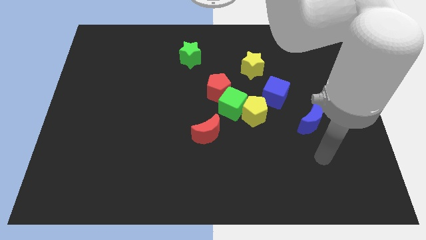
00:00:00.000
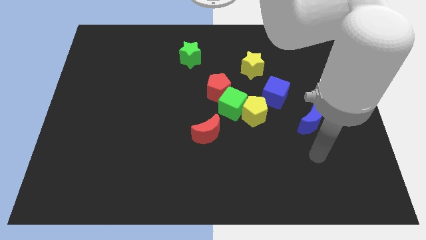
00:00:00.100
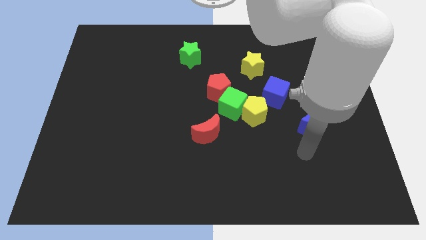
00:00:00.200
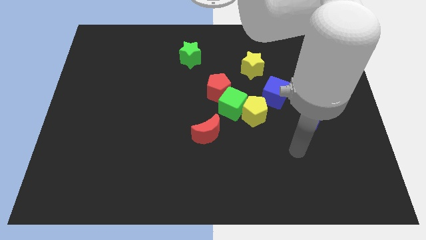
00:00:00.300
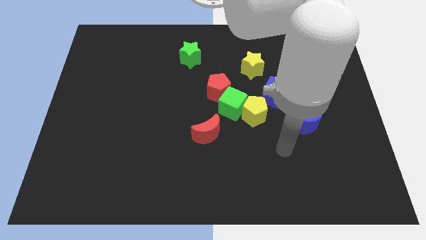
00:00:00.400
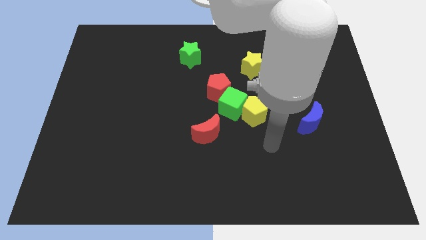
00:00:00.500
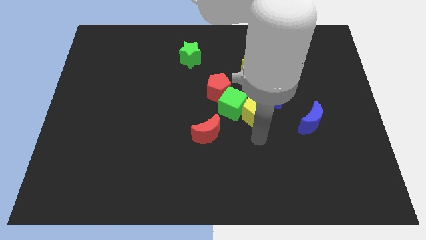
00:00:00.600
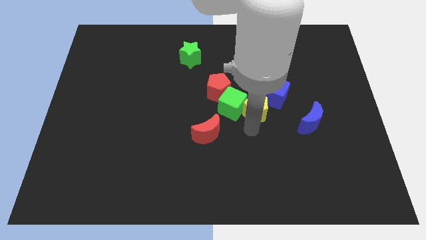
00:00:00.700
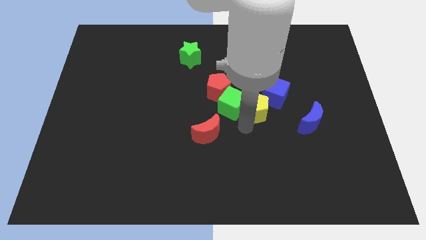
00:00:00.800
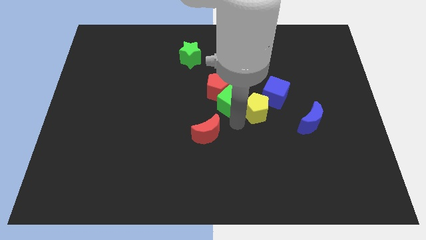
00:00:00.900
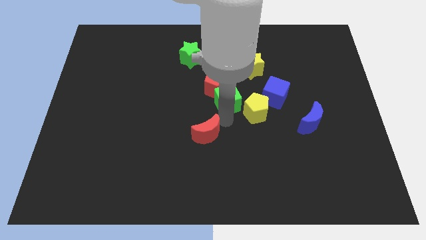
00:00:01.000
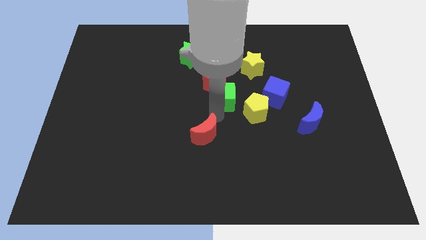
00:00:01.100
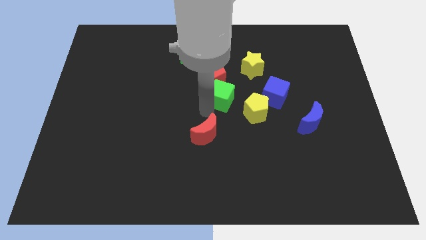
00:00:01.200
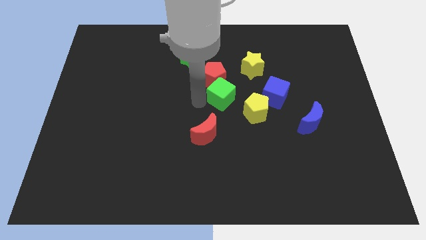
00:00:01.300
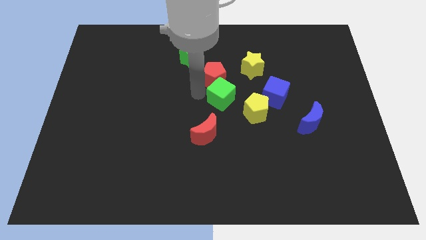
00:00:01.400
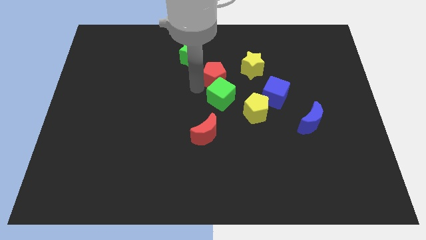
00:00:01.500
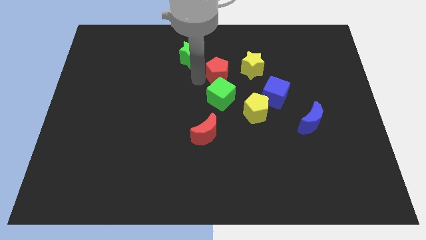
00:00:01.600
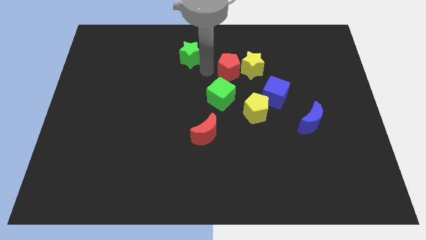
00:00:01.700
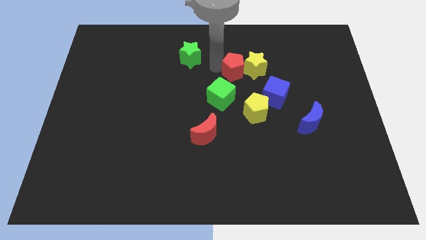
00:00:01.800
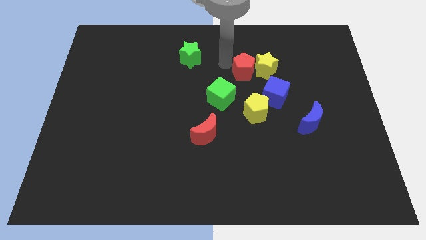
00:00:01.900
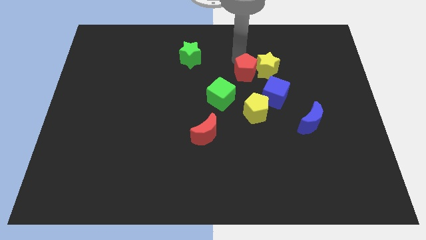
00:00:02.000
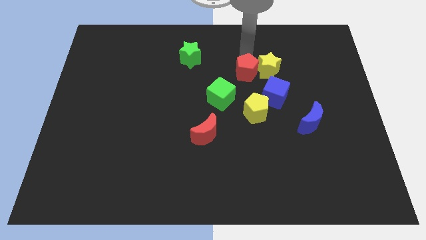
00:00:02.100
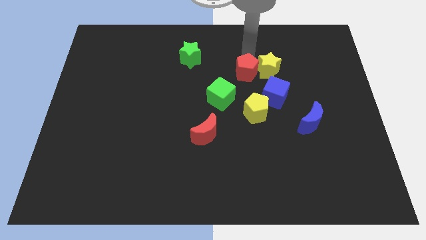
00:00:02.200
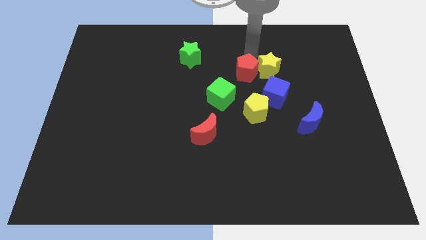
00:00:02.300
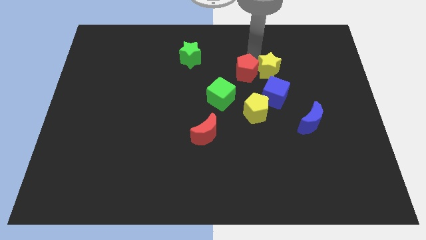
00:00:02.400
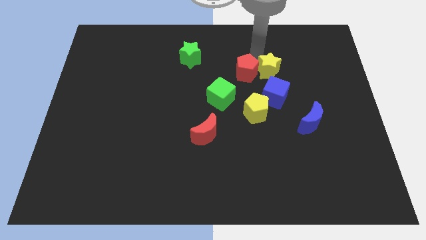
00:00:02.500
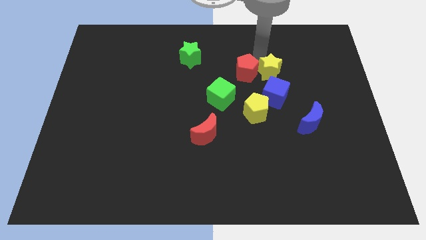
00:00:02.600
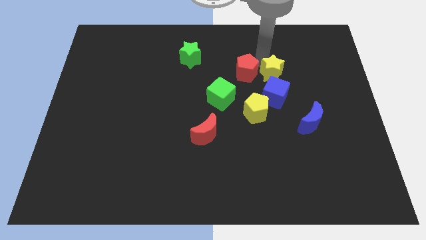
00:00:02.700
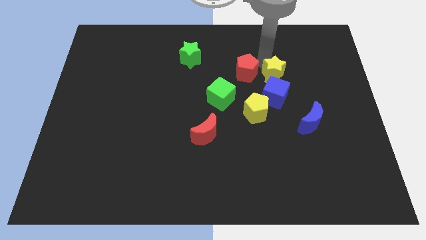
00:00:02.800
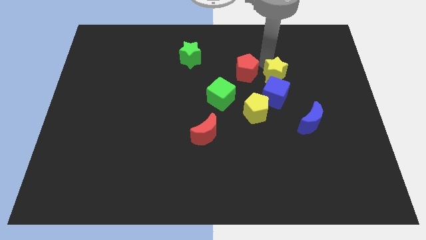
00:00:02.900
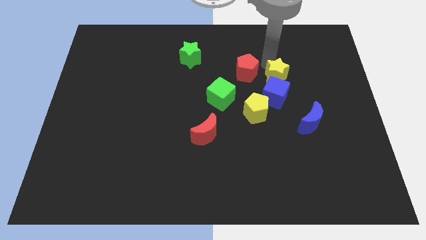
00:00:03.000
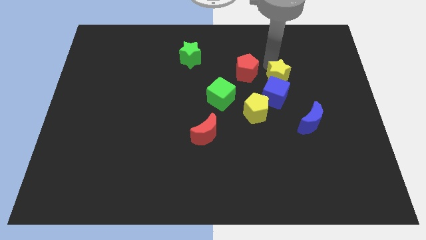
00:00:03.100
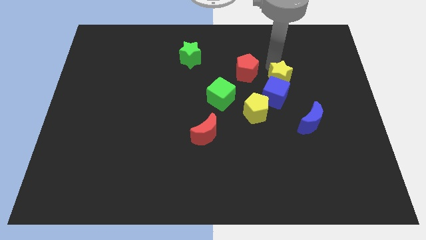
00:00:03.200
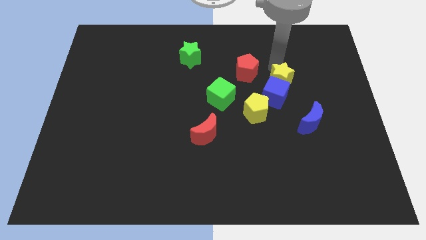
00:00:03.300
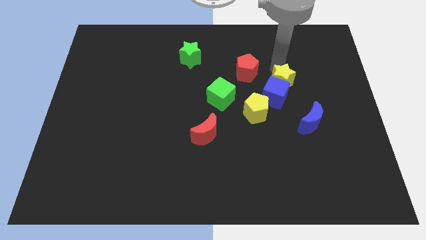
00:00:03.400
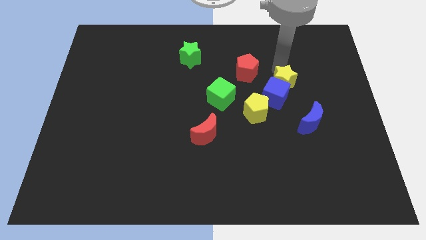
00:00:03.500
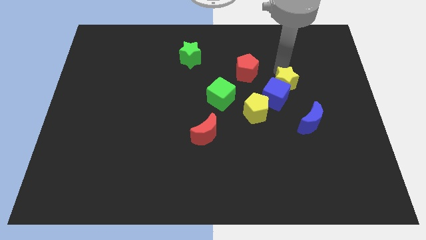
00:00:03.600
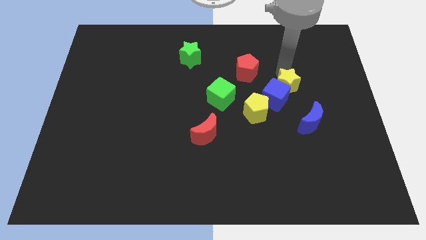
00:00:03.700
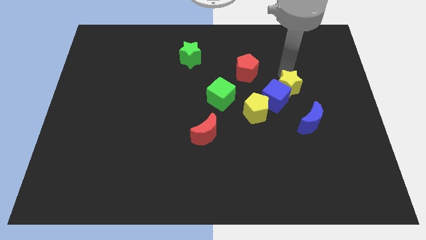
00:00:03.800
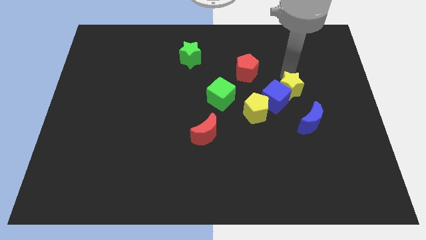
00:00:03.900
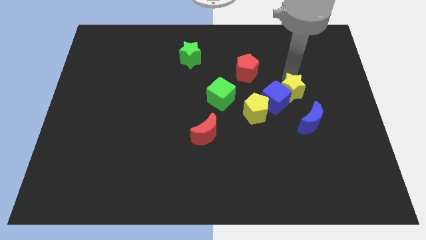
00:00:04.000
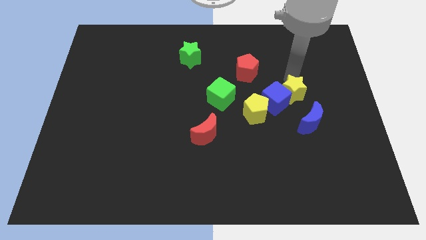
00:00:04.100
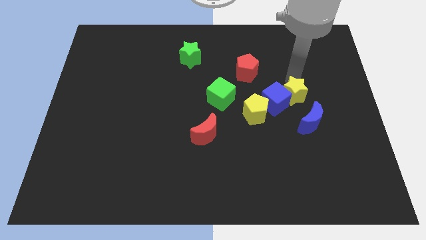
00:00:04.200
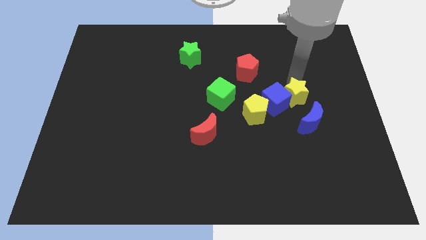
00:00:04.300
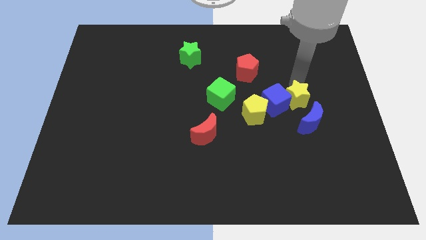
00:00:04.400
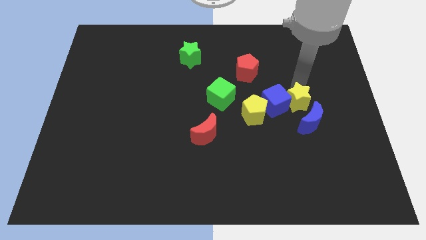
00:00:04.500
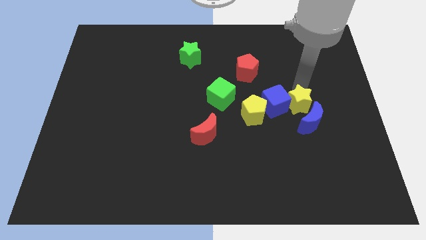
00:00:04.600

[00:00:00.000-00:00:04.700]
move the yellow star next to the blue moon

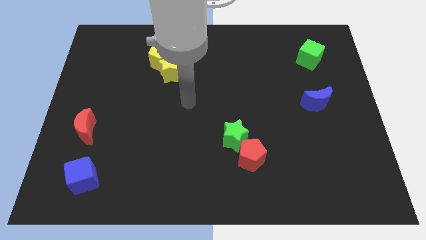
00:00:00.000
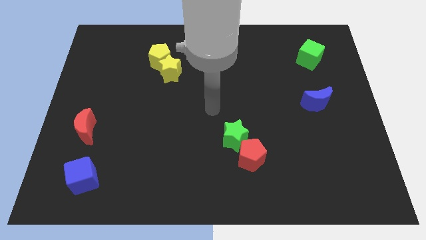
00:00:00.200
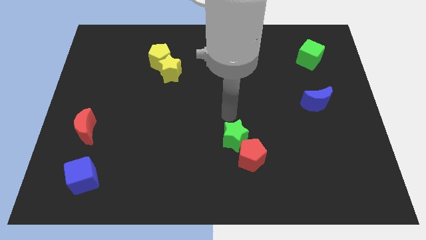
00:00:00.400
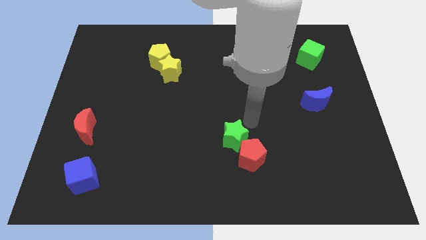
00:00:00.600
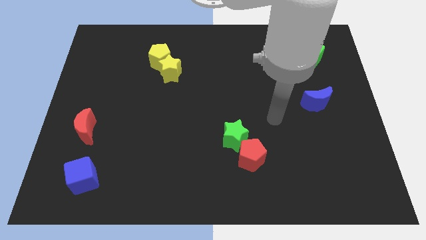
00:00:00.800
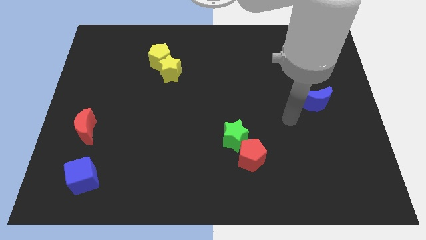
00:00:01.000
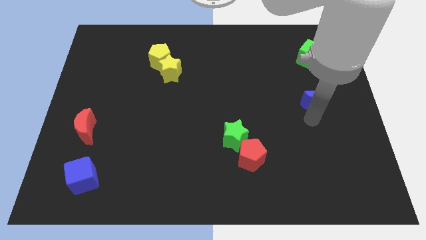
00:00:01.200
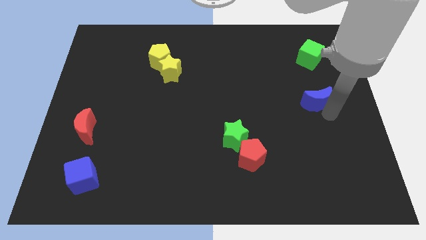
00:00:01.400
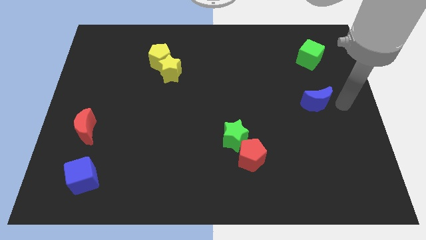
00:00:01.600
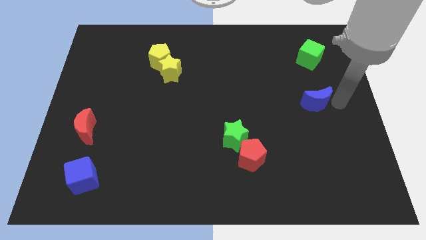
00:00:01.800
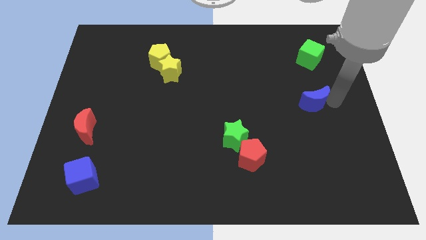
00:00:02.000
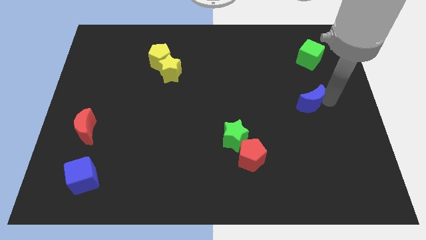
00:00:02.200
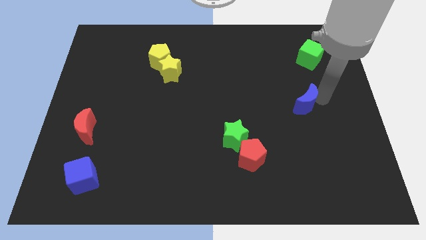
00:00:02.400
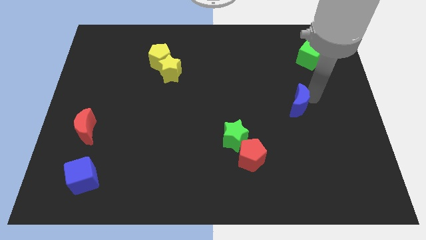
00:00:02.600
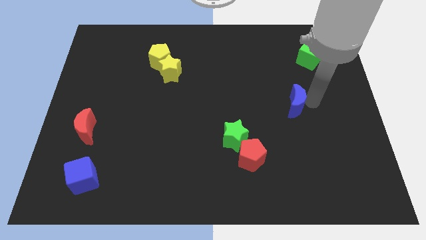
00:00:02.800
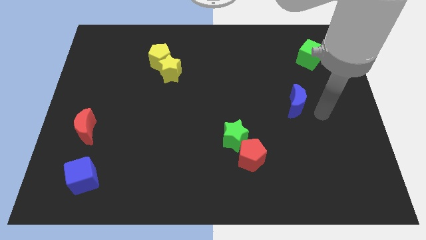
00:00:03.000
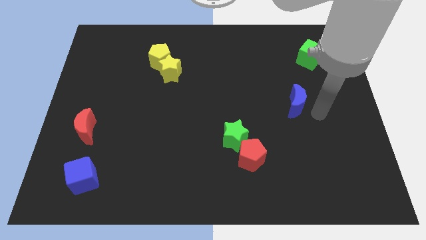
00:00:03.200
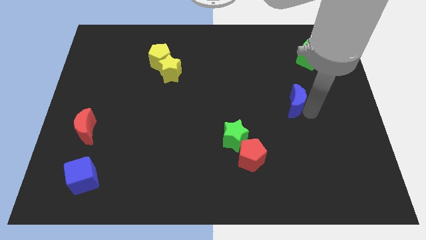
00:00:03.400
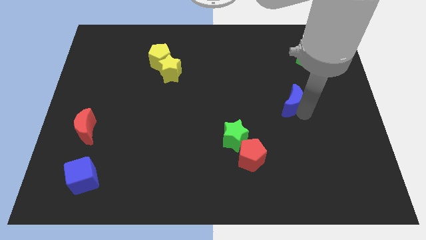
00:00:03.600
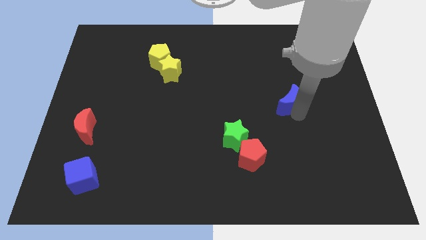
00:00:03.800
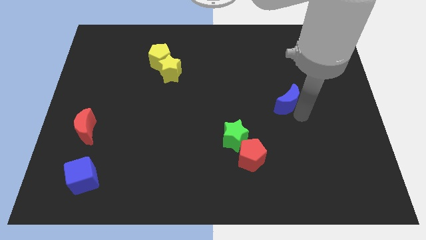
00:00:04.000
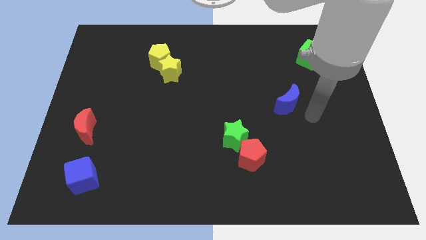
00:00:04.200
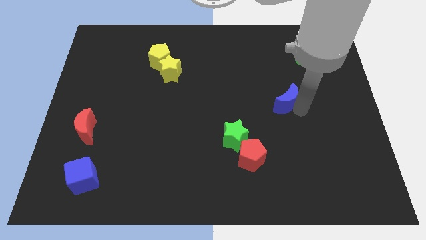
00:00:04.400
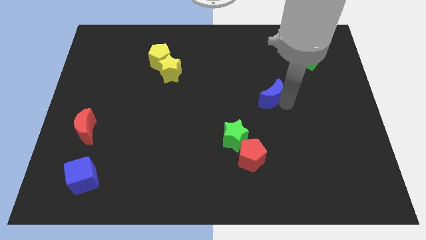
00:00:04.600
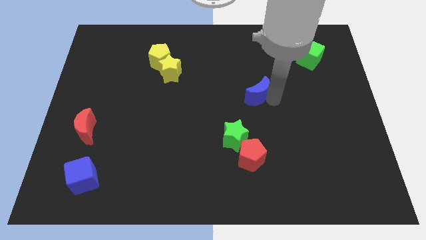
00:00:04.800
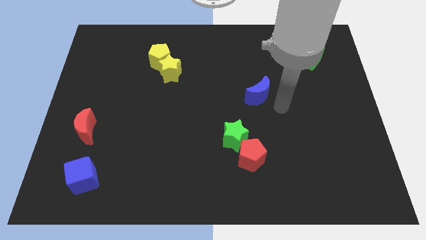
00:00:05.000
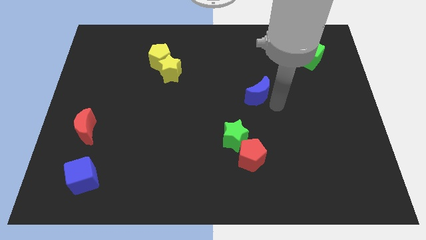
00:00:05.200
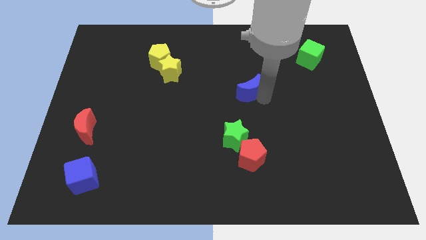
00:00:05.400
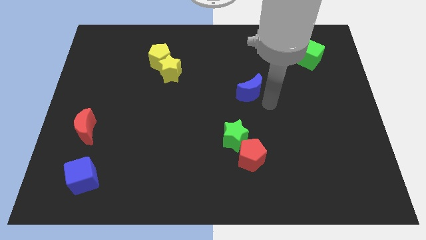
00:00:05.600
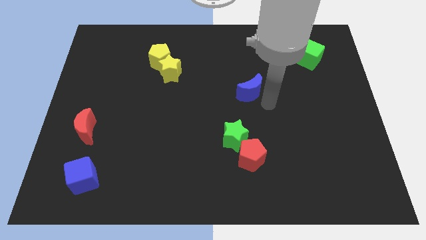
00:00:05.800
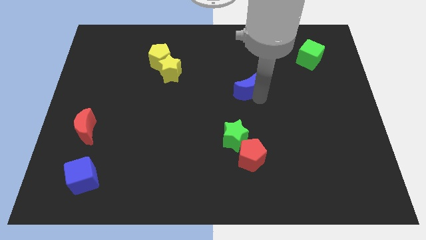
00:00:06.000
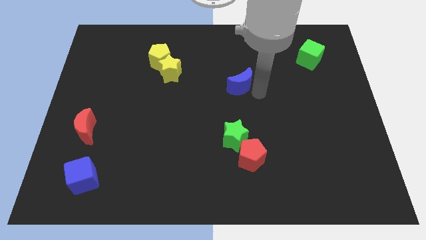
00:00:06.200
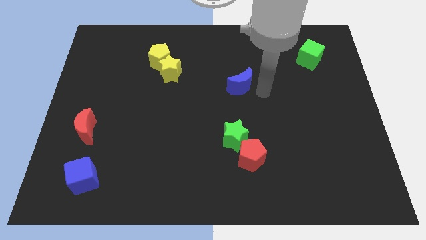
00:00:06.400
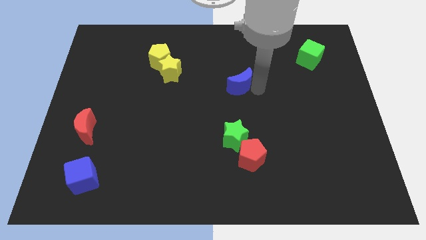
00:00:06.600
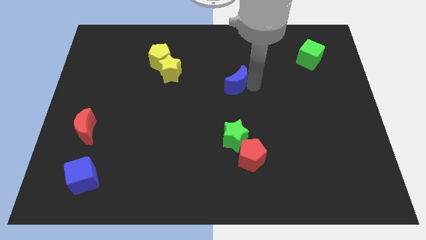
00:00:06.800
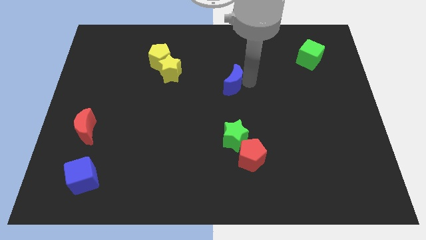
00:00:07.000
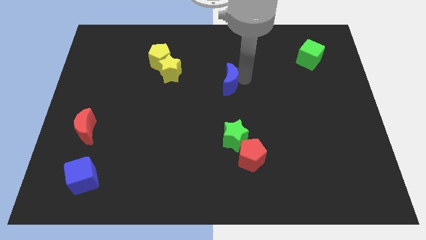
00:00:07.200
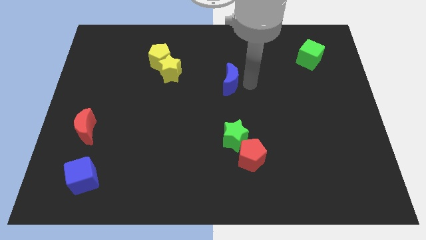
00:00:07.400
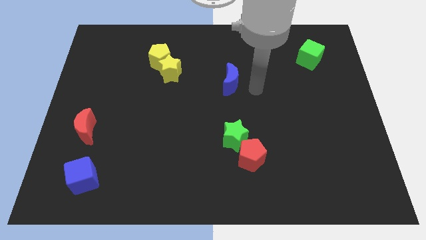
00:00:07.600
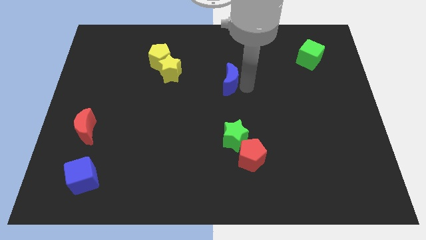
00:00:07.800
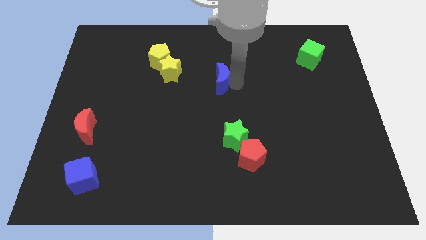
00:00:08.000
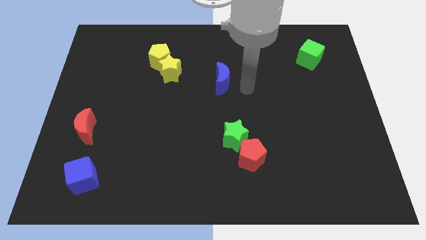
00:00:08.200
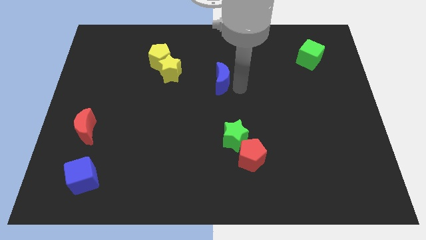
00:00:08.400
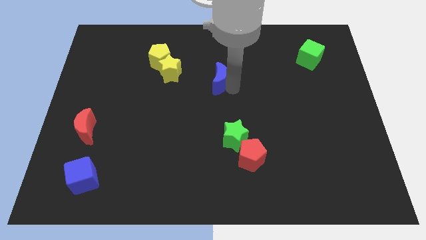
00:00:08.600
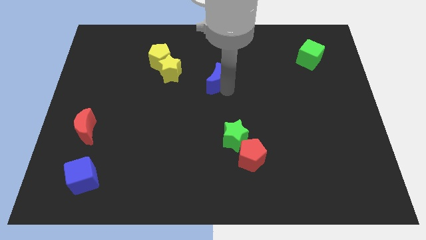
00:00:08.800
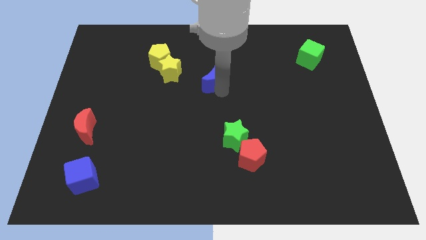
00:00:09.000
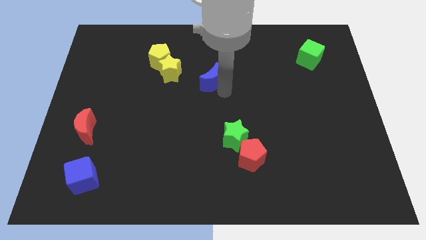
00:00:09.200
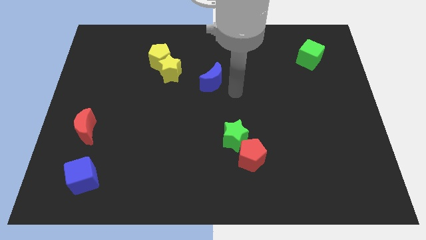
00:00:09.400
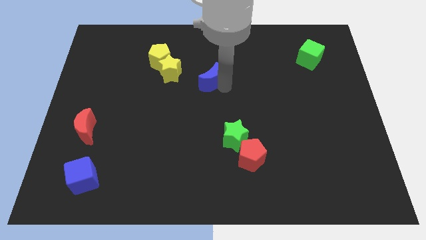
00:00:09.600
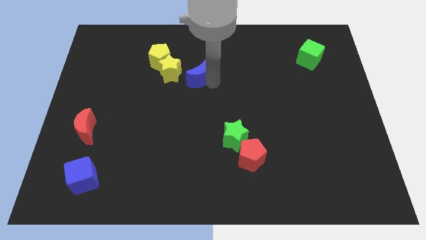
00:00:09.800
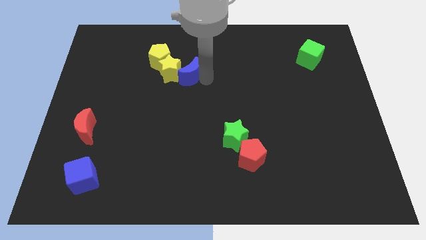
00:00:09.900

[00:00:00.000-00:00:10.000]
move the blue moon to the yellow star
